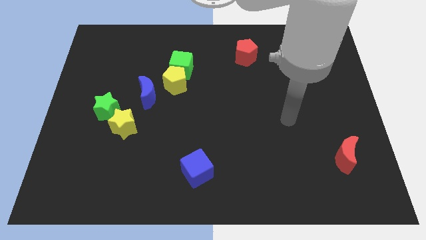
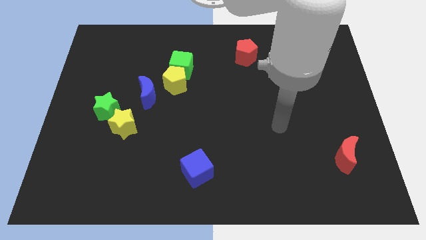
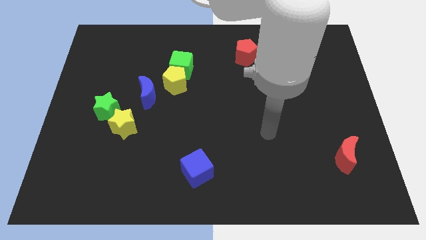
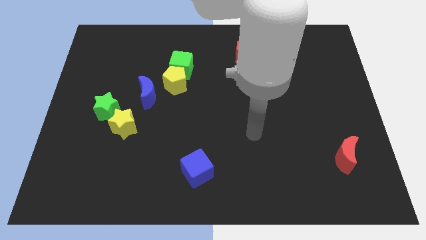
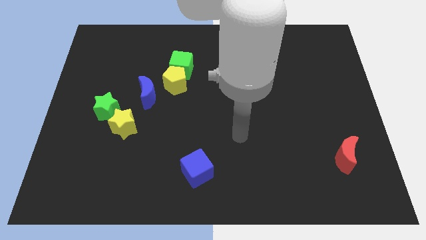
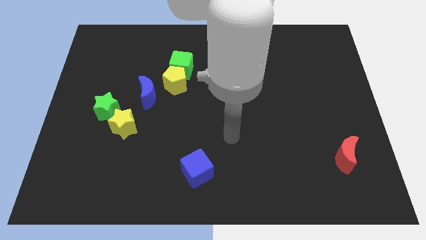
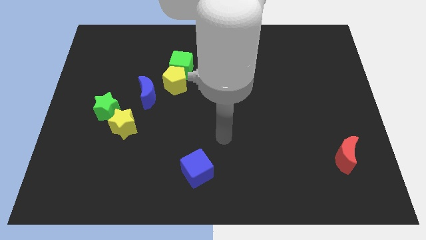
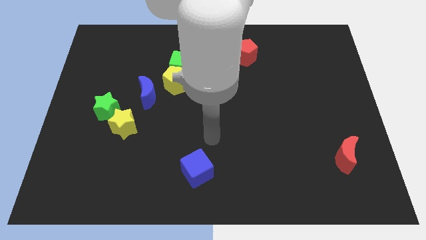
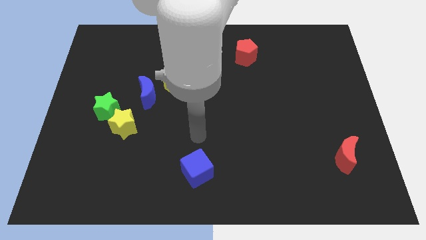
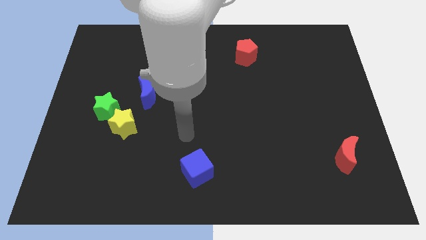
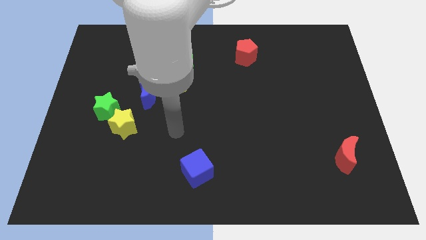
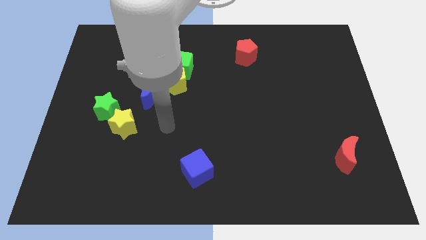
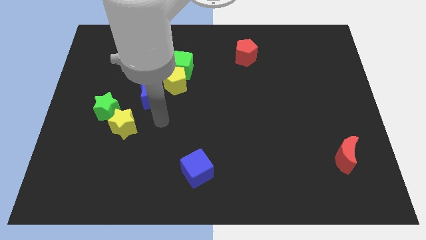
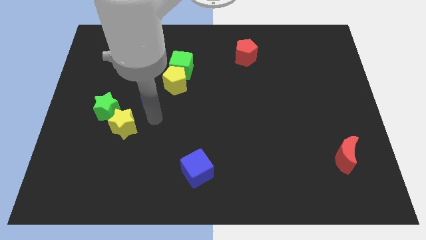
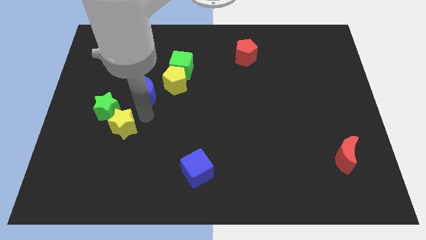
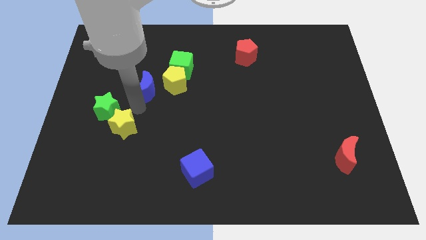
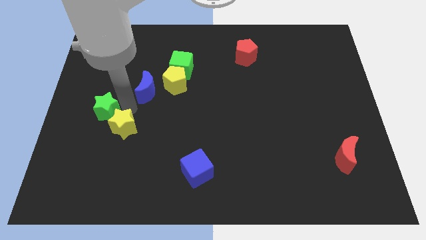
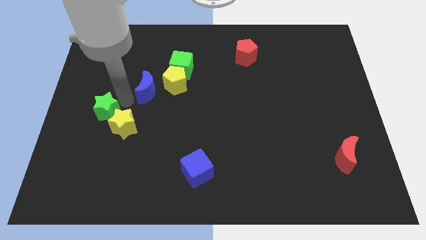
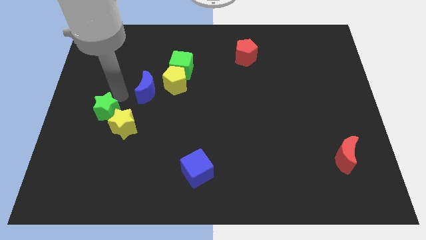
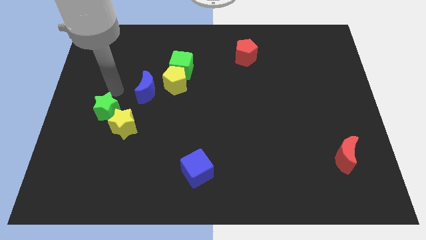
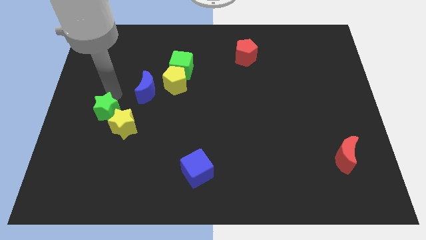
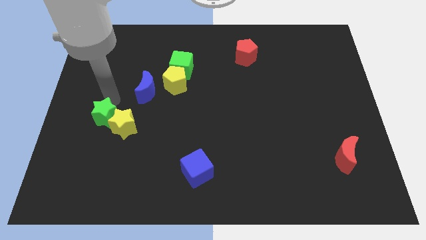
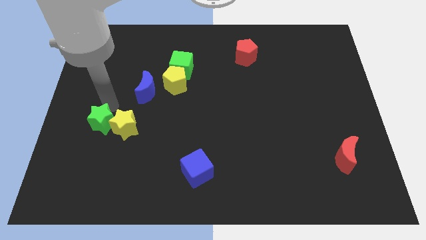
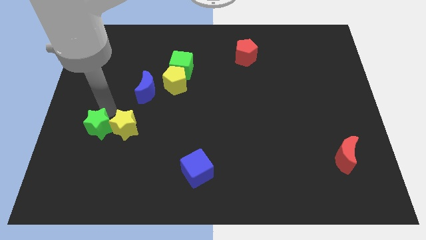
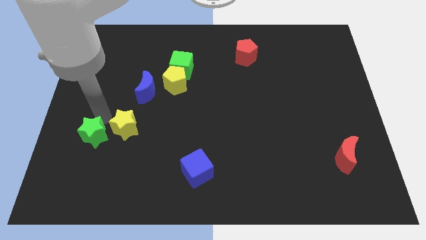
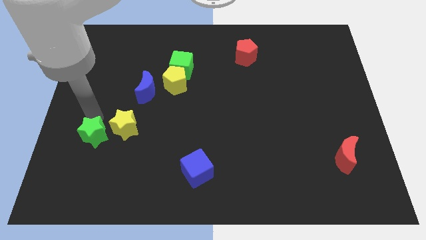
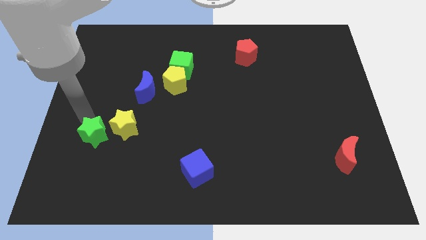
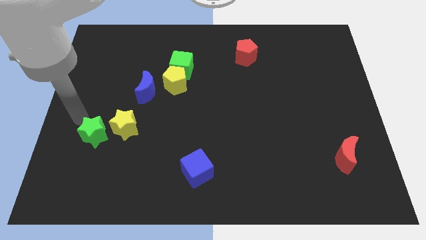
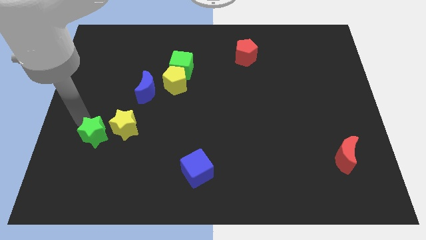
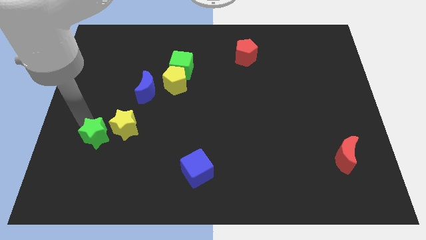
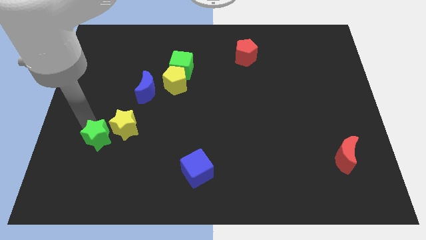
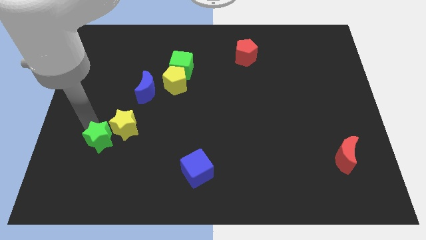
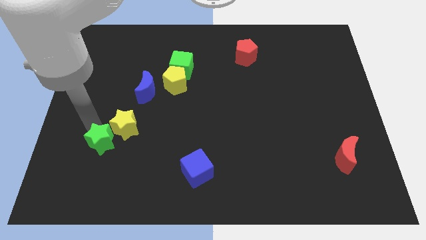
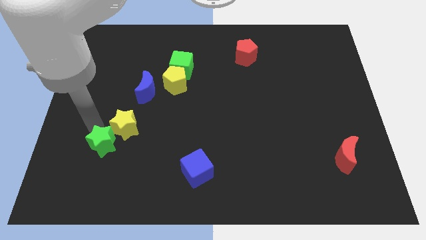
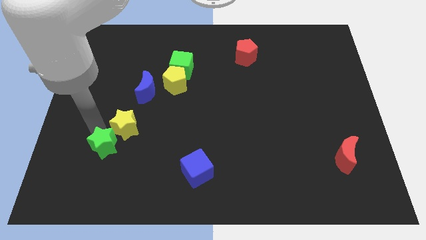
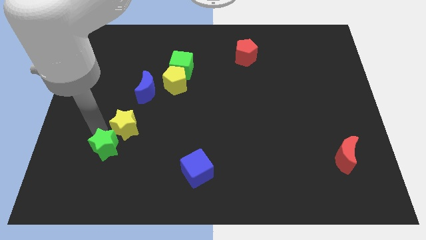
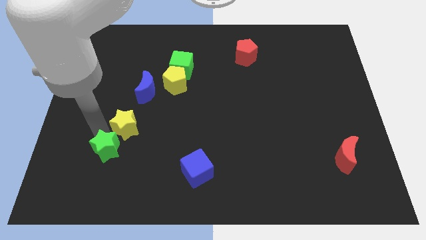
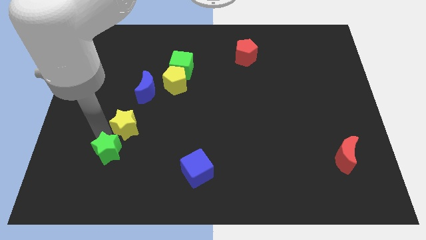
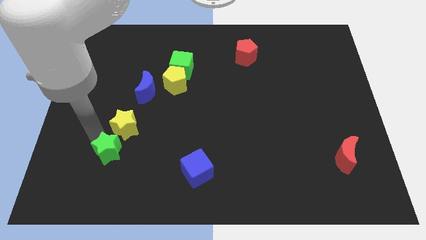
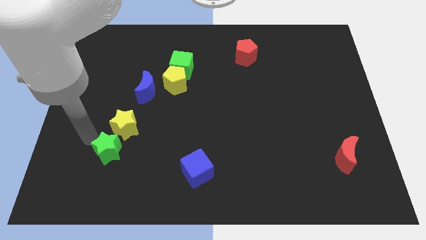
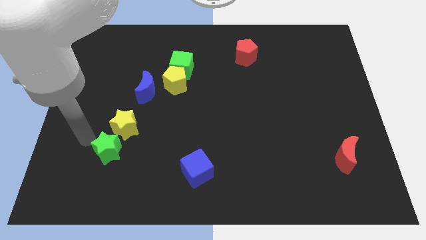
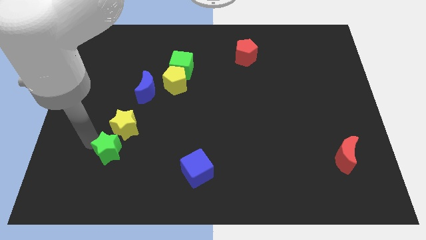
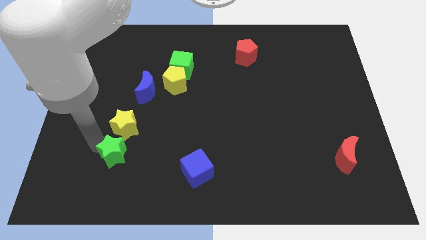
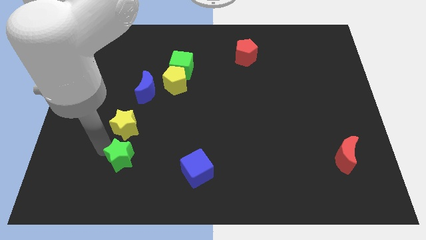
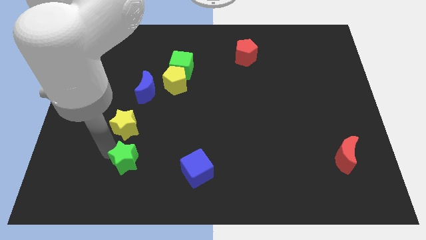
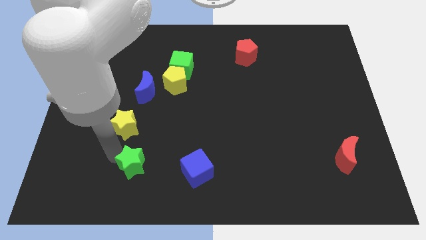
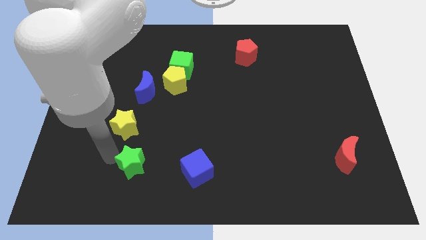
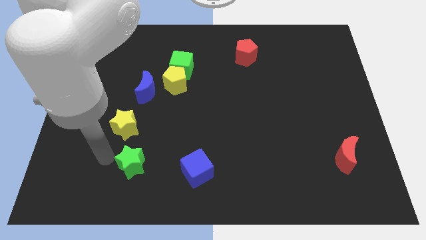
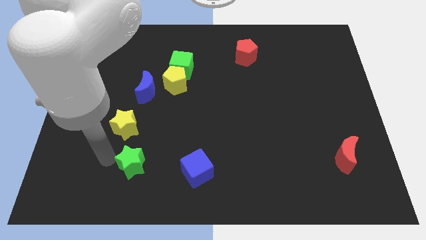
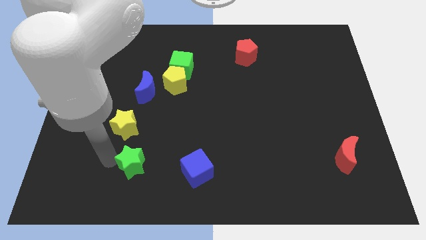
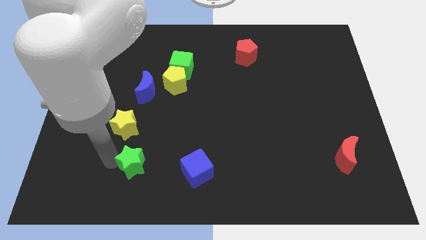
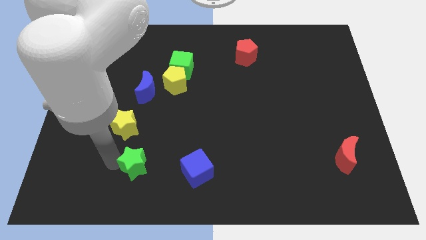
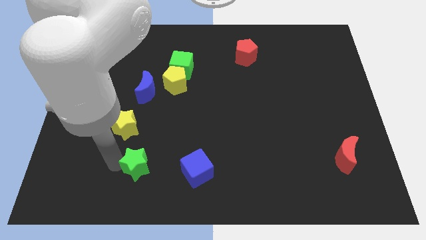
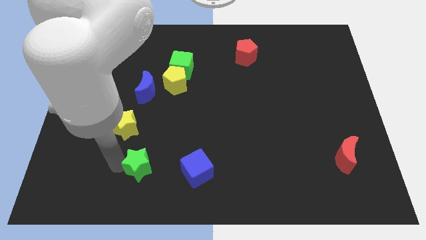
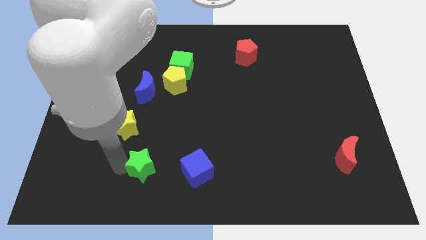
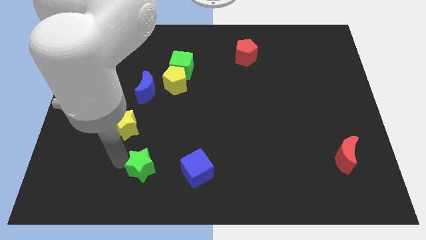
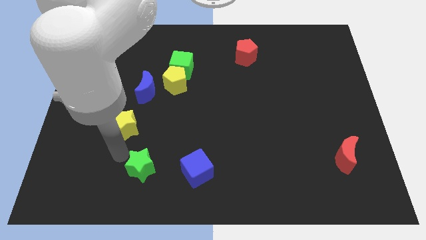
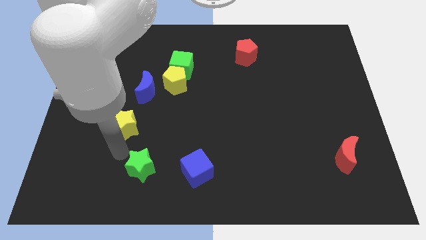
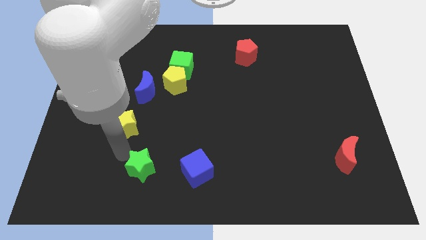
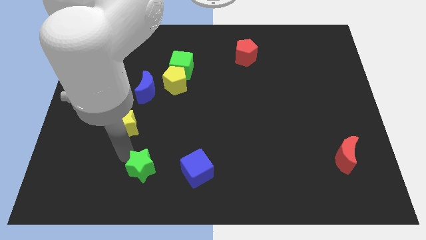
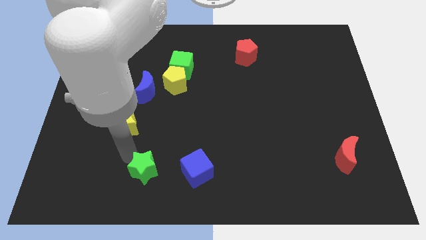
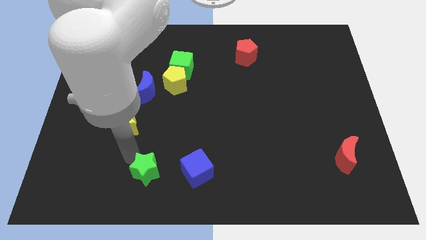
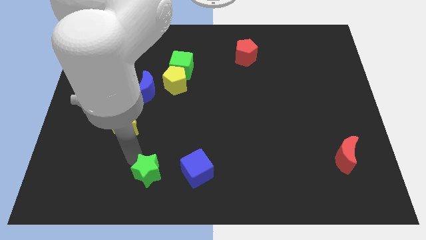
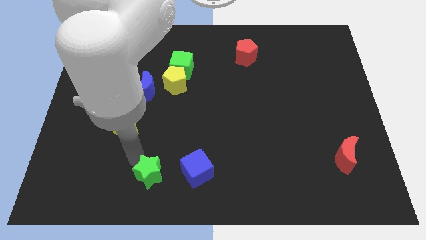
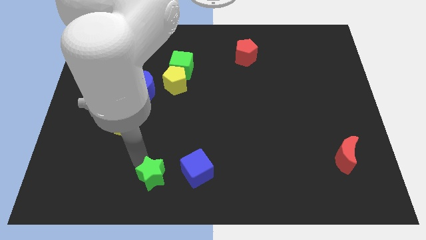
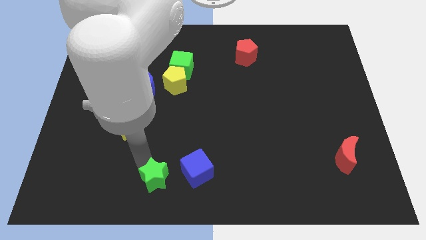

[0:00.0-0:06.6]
move the green star to the bottom
